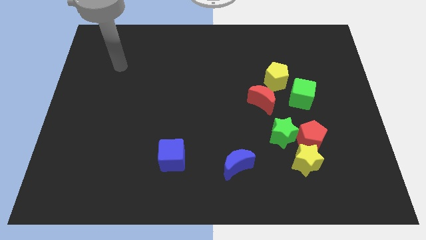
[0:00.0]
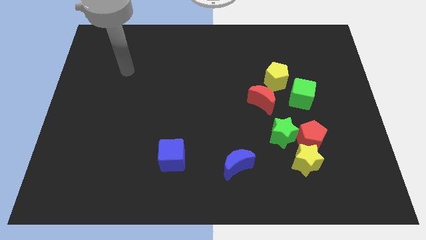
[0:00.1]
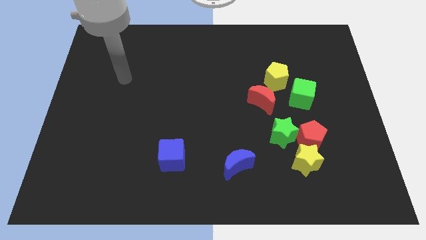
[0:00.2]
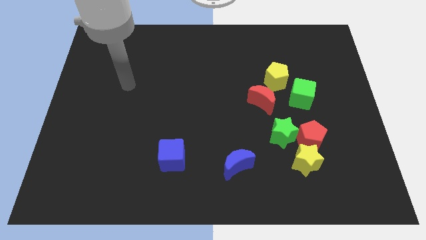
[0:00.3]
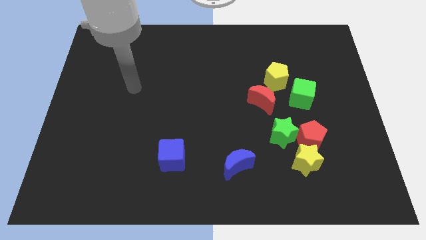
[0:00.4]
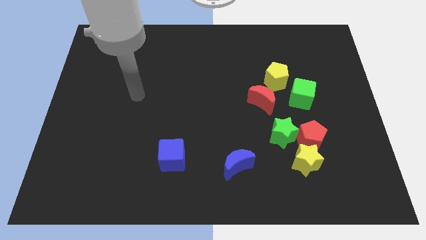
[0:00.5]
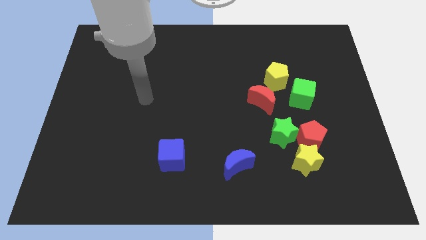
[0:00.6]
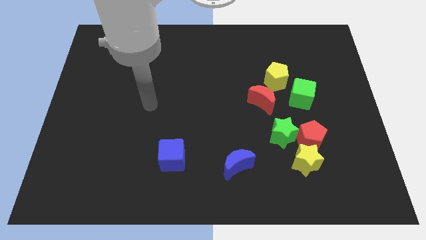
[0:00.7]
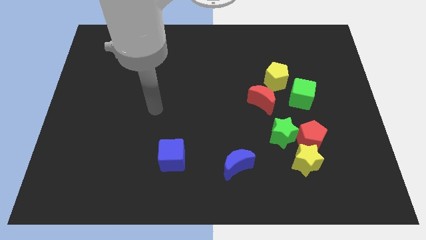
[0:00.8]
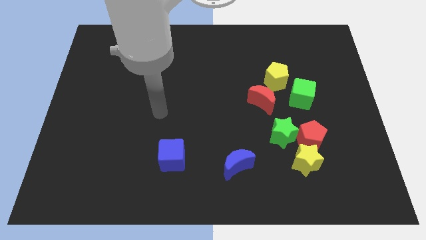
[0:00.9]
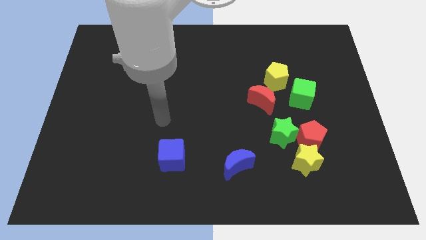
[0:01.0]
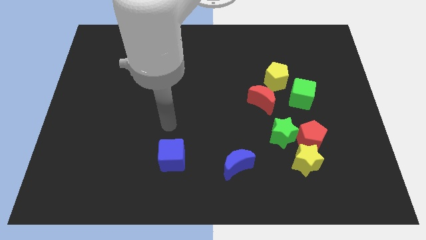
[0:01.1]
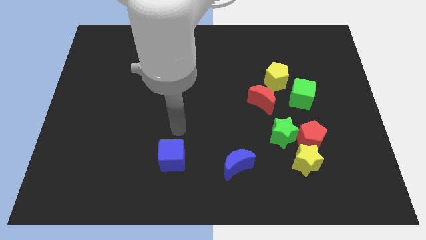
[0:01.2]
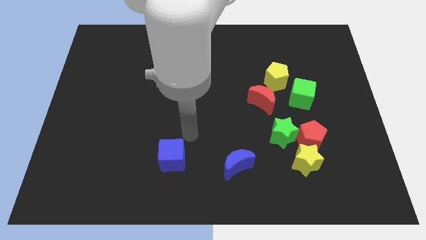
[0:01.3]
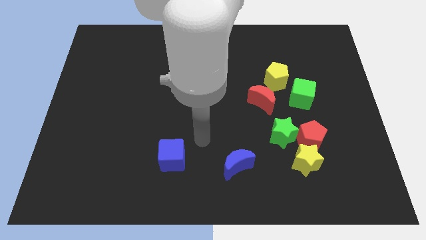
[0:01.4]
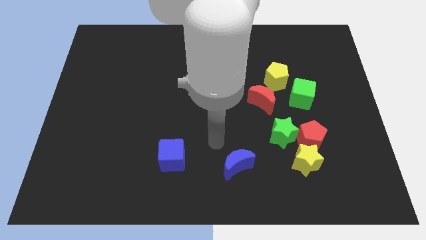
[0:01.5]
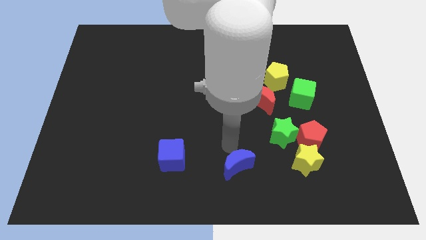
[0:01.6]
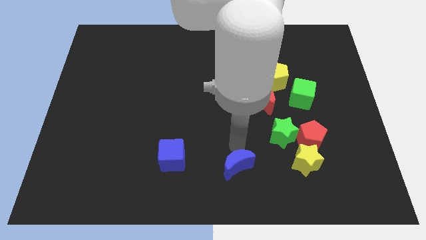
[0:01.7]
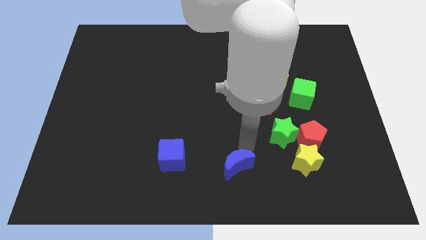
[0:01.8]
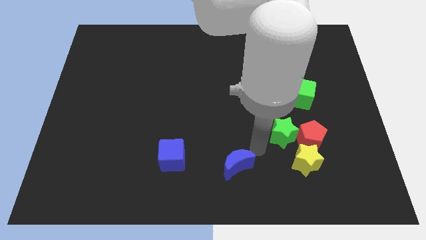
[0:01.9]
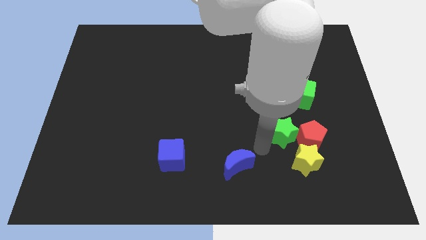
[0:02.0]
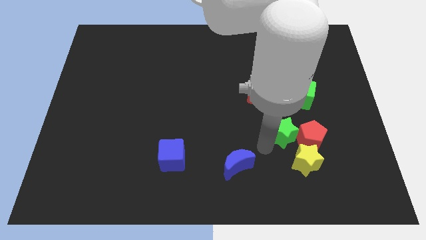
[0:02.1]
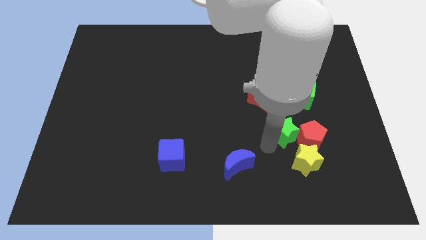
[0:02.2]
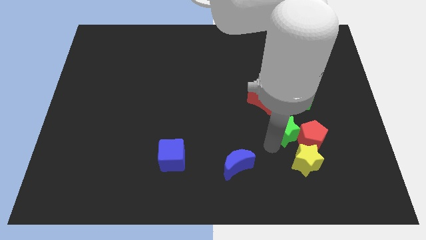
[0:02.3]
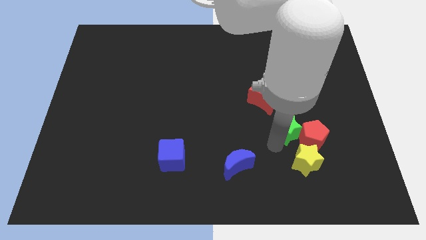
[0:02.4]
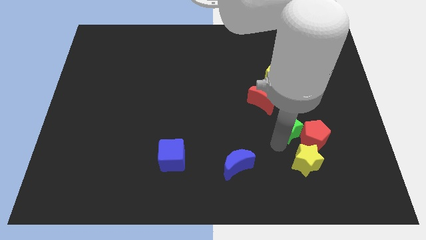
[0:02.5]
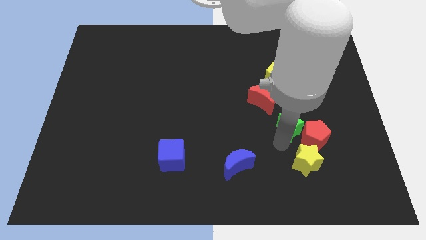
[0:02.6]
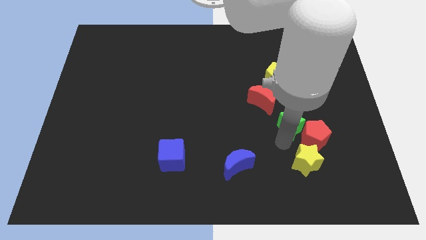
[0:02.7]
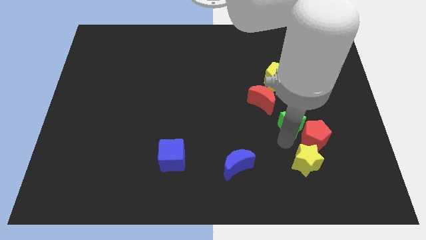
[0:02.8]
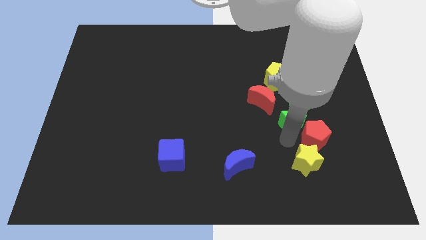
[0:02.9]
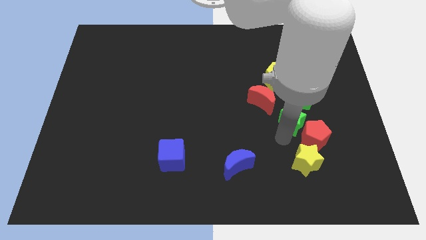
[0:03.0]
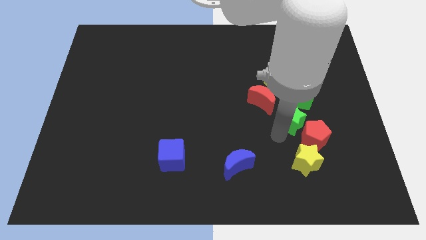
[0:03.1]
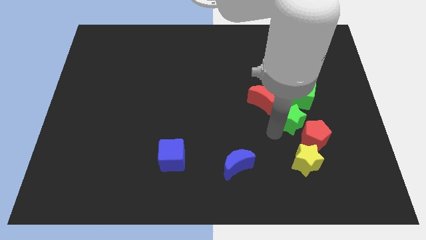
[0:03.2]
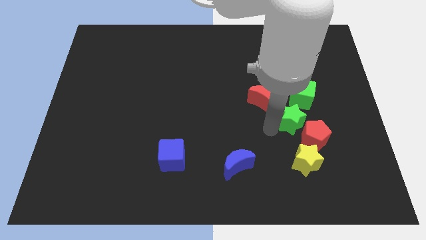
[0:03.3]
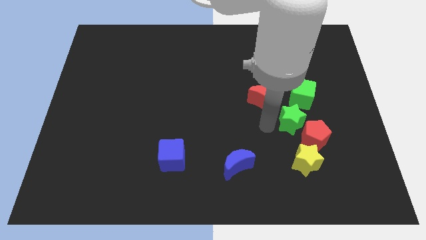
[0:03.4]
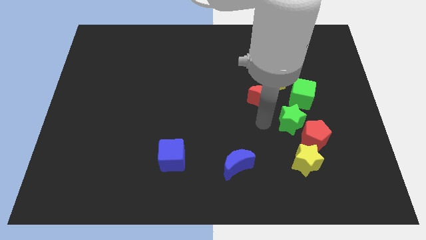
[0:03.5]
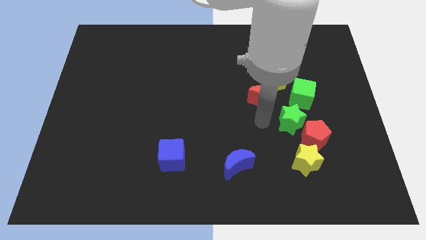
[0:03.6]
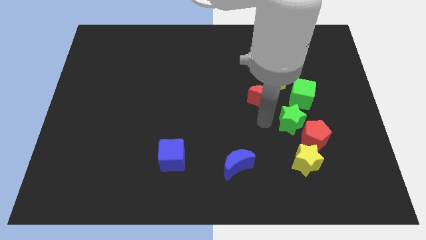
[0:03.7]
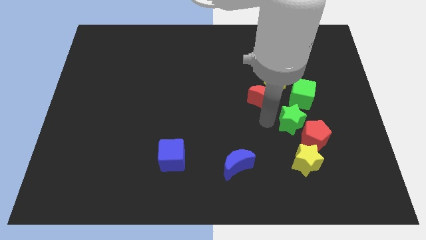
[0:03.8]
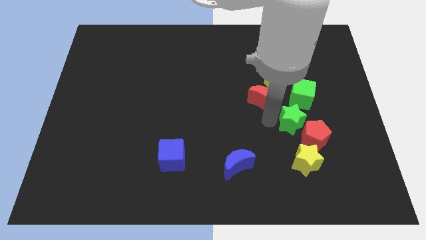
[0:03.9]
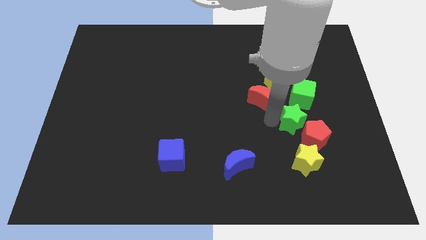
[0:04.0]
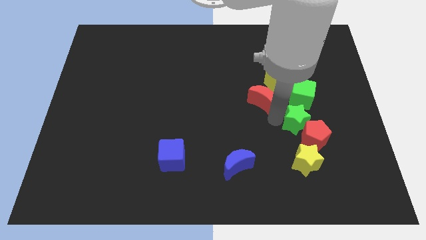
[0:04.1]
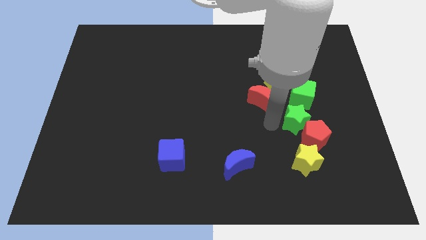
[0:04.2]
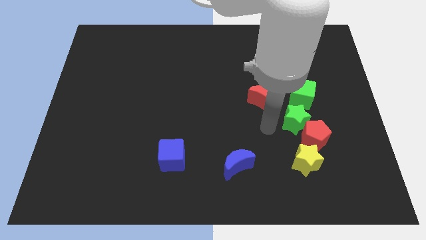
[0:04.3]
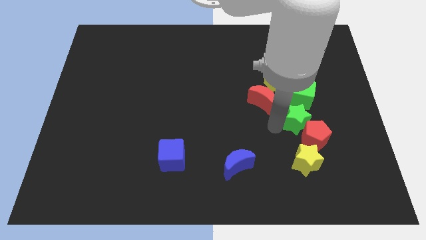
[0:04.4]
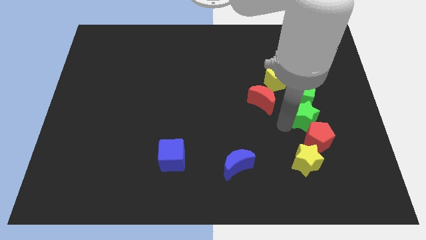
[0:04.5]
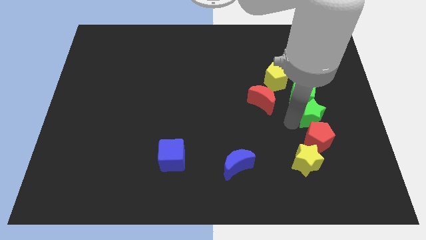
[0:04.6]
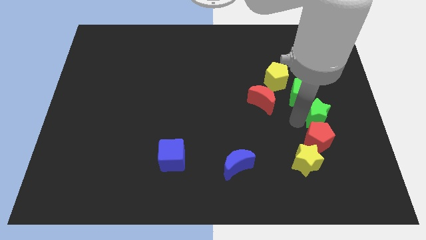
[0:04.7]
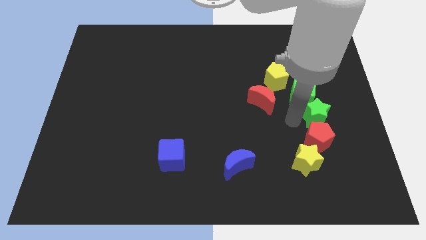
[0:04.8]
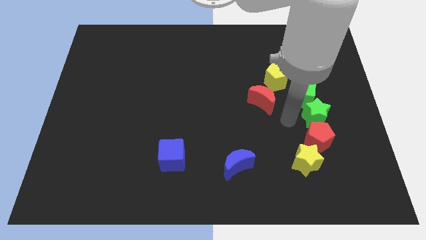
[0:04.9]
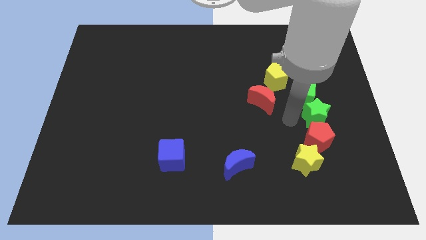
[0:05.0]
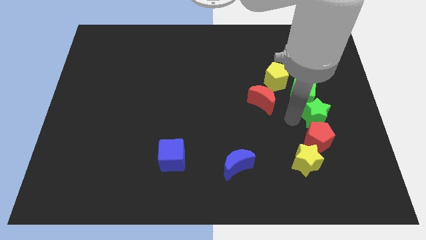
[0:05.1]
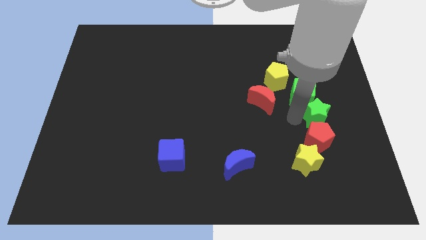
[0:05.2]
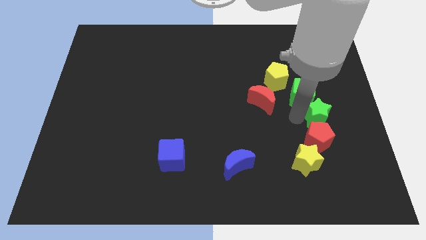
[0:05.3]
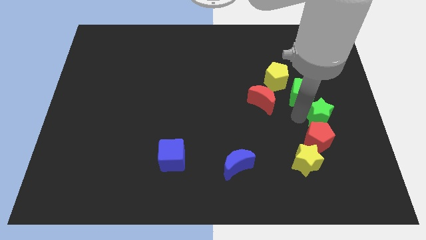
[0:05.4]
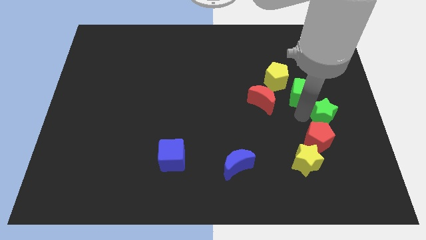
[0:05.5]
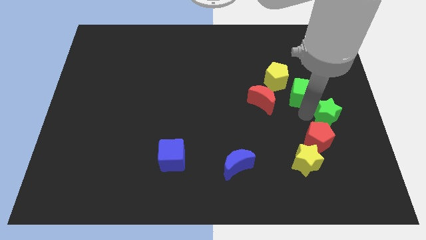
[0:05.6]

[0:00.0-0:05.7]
push the green star to the right side of the board

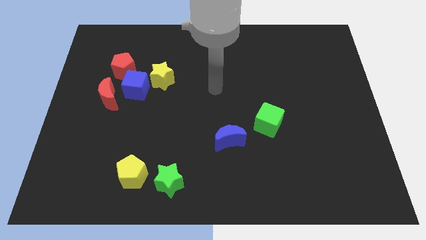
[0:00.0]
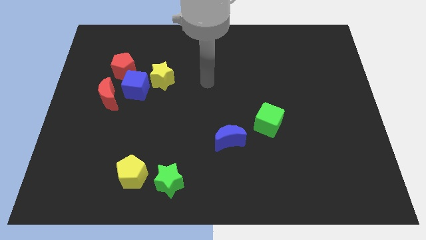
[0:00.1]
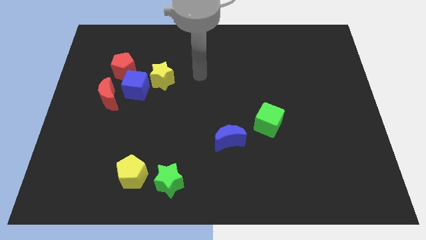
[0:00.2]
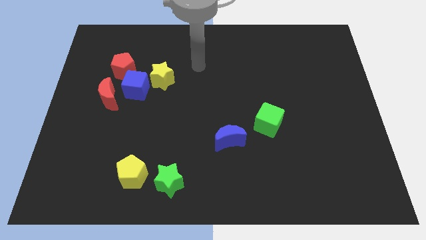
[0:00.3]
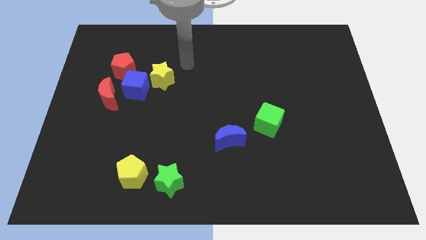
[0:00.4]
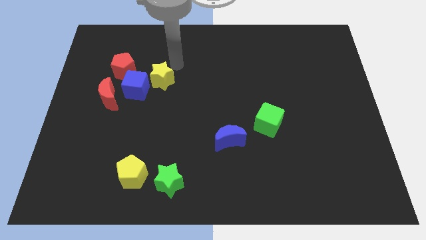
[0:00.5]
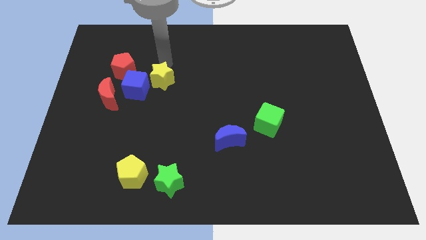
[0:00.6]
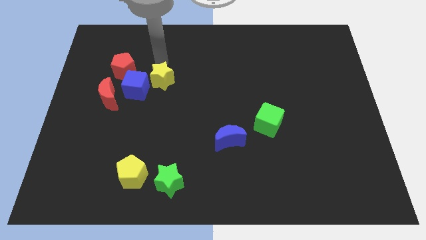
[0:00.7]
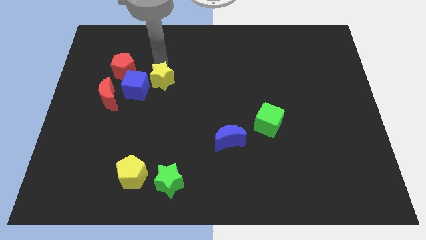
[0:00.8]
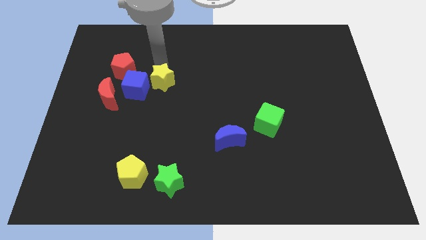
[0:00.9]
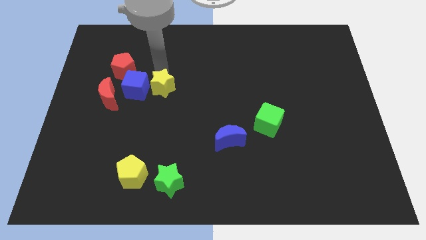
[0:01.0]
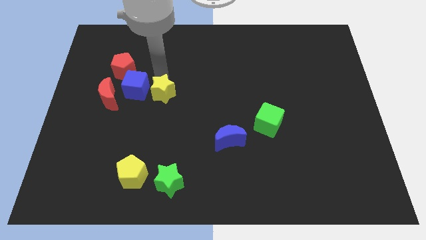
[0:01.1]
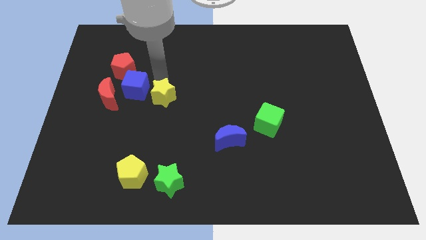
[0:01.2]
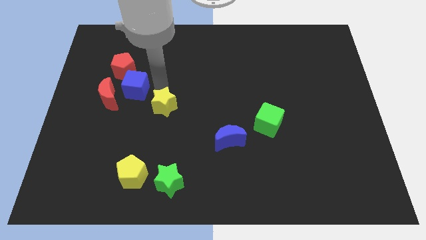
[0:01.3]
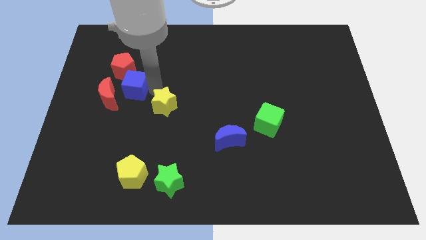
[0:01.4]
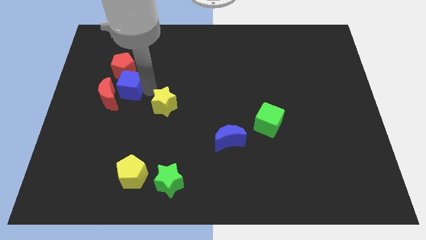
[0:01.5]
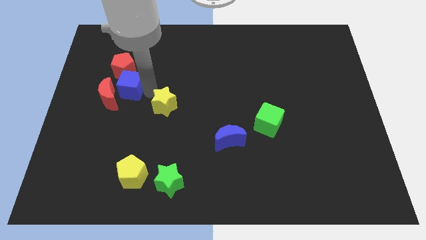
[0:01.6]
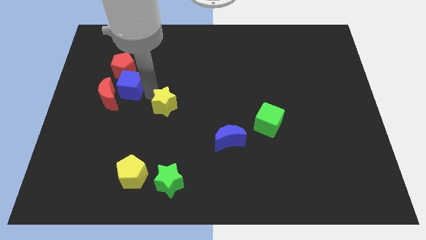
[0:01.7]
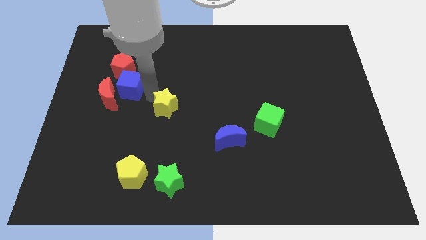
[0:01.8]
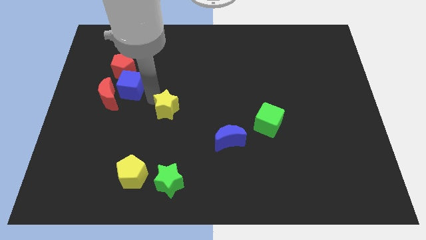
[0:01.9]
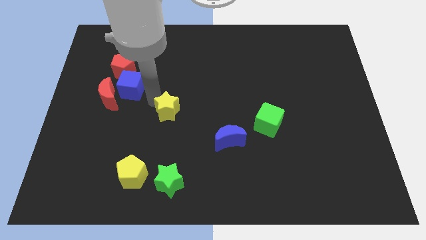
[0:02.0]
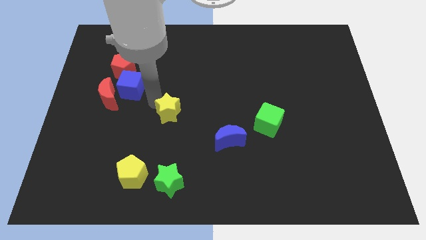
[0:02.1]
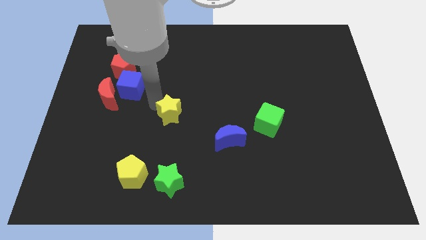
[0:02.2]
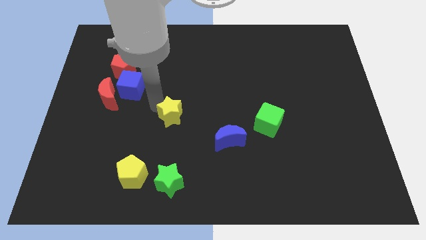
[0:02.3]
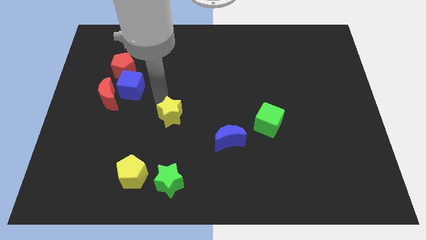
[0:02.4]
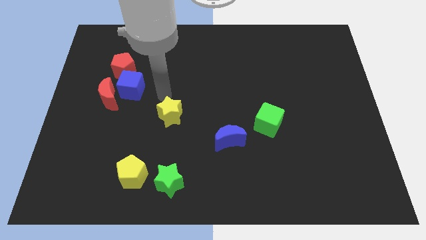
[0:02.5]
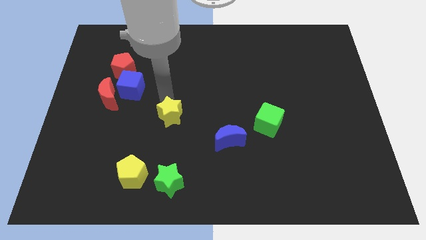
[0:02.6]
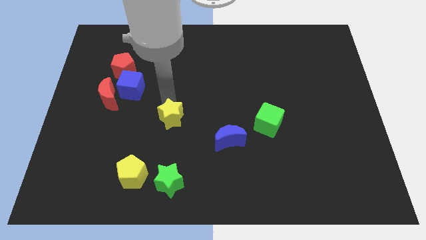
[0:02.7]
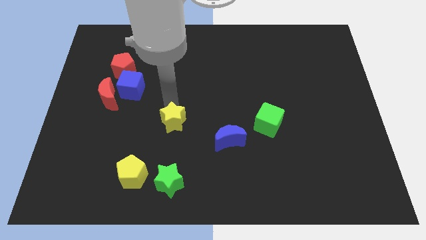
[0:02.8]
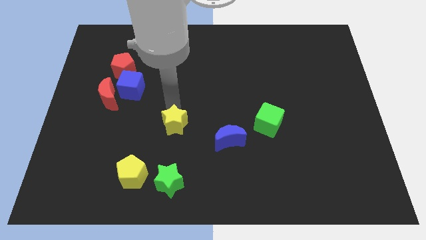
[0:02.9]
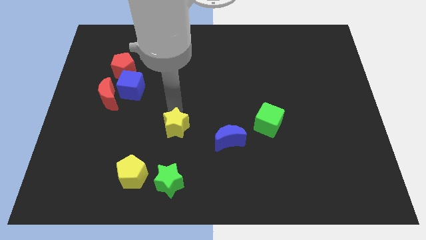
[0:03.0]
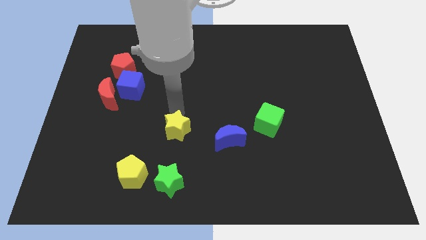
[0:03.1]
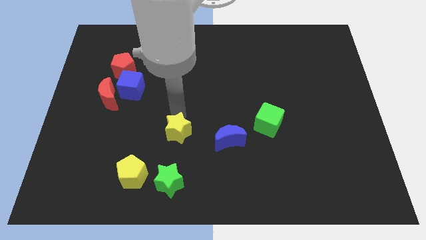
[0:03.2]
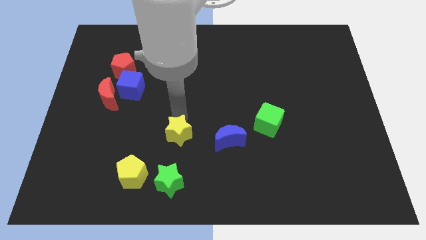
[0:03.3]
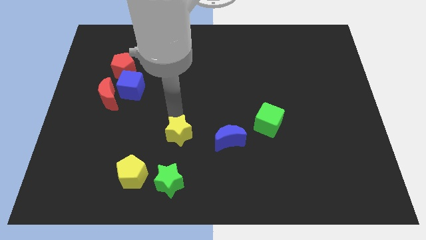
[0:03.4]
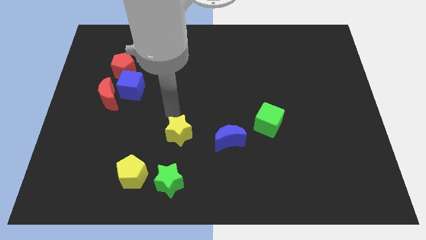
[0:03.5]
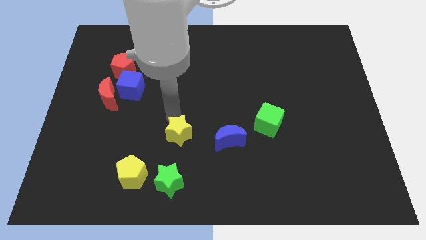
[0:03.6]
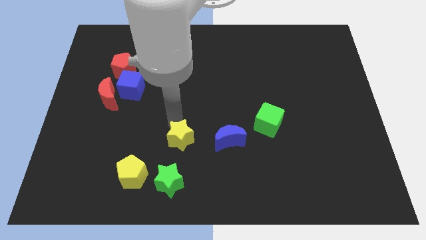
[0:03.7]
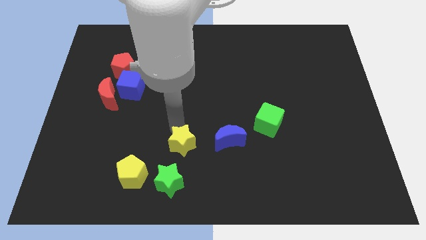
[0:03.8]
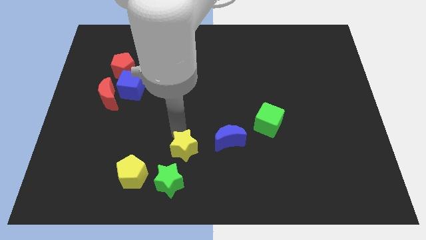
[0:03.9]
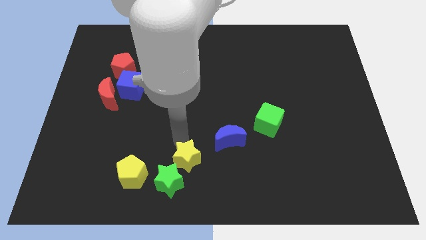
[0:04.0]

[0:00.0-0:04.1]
slide the yellow star to the bottom side
